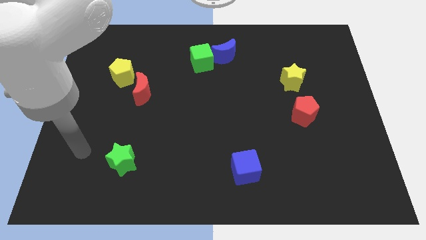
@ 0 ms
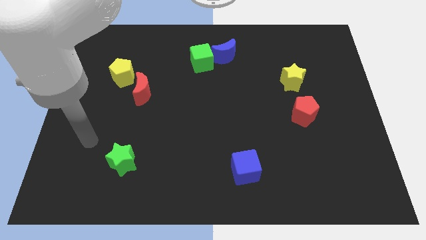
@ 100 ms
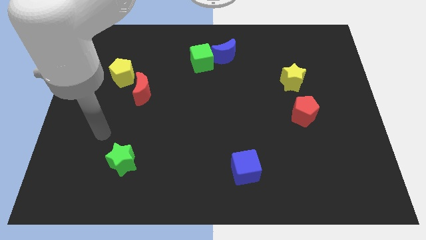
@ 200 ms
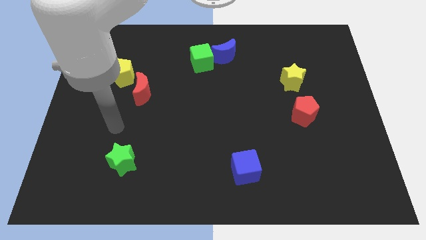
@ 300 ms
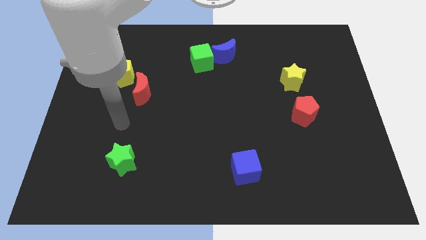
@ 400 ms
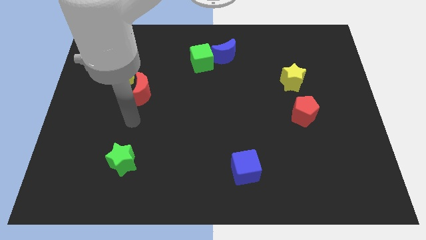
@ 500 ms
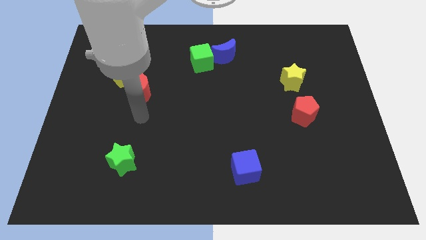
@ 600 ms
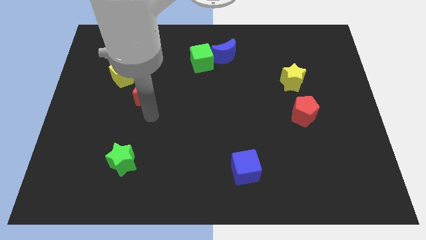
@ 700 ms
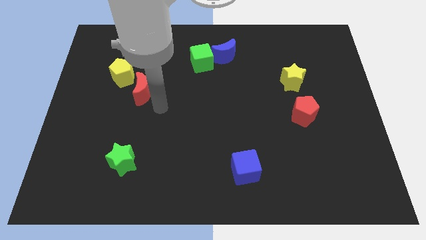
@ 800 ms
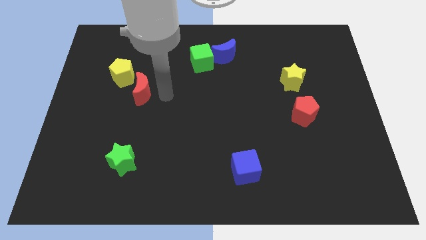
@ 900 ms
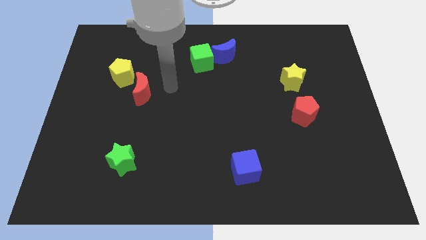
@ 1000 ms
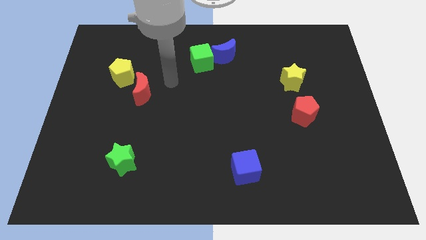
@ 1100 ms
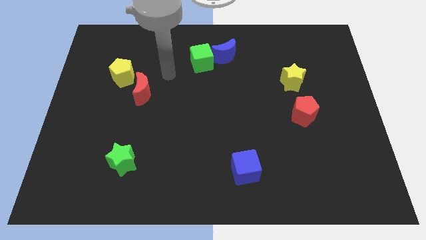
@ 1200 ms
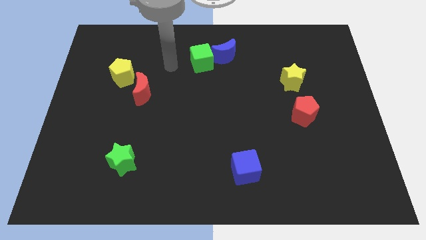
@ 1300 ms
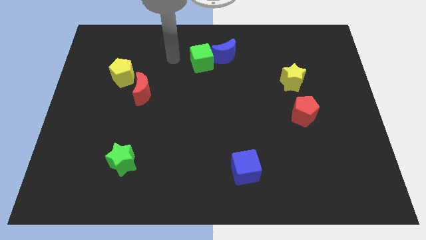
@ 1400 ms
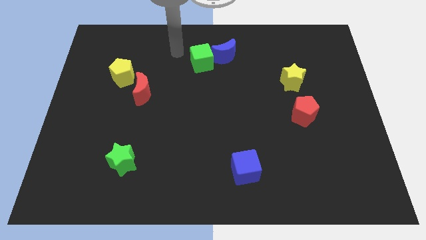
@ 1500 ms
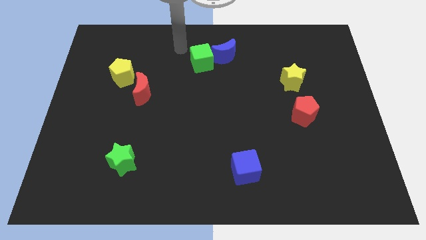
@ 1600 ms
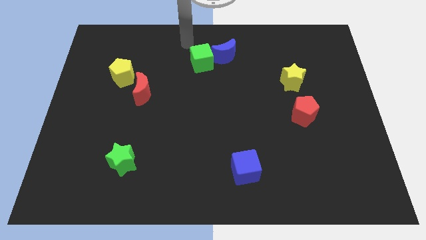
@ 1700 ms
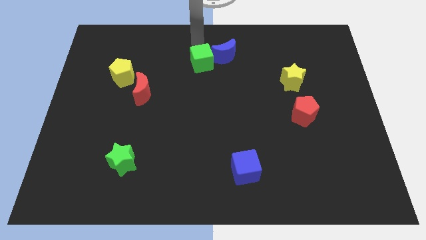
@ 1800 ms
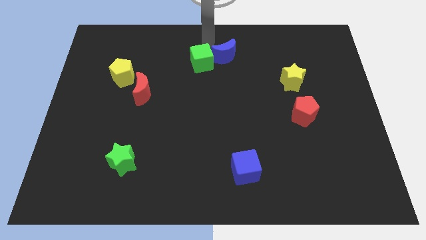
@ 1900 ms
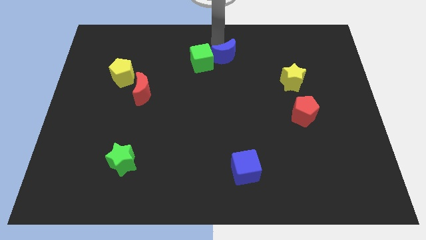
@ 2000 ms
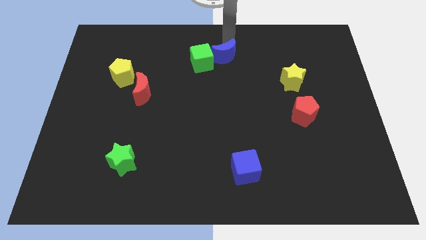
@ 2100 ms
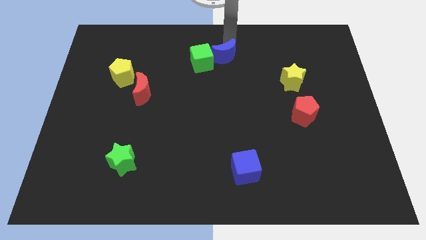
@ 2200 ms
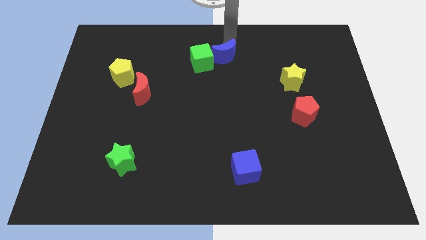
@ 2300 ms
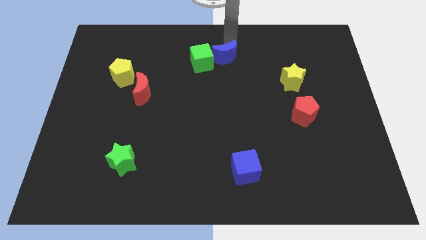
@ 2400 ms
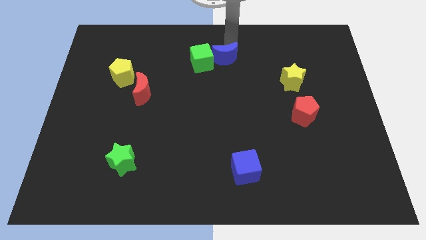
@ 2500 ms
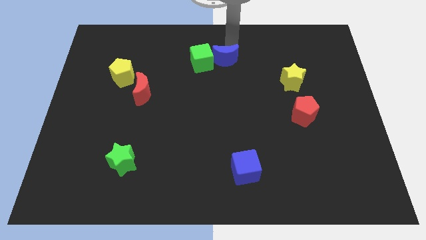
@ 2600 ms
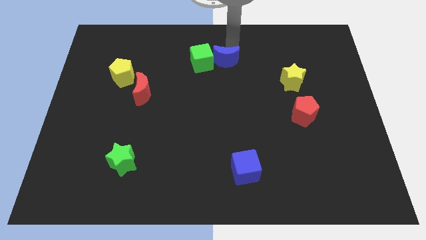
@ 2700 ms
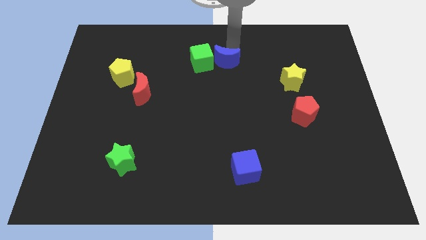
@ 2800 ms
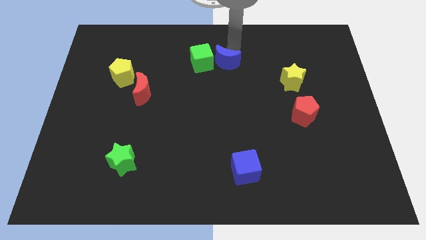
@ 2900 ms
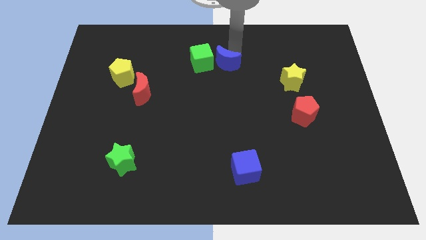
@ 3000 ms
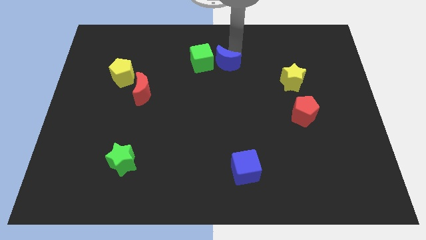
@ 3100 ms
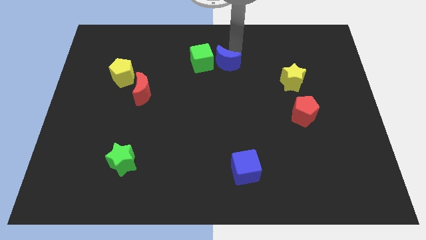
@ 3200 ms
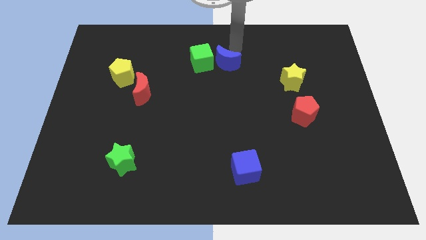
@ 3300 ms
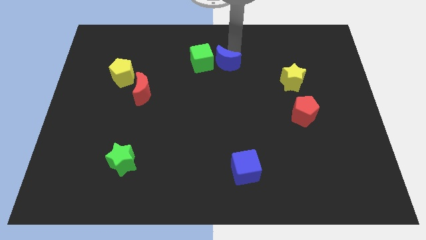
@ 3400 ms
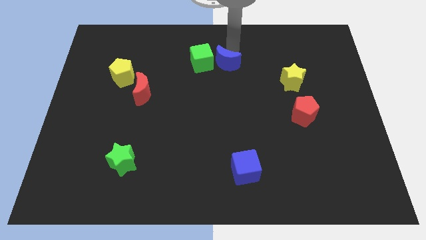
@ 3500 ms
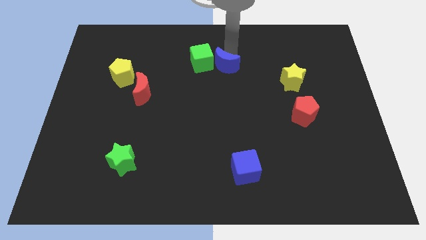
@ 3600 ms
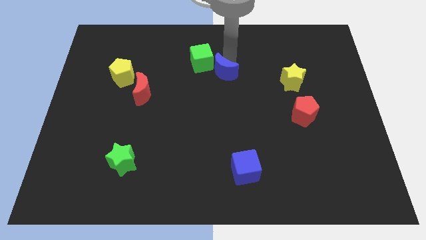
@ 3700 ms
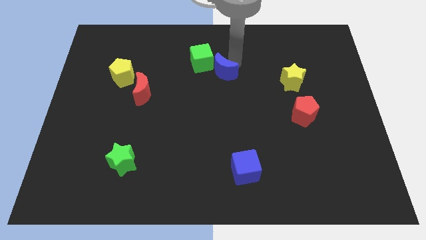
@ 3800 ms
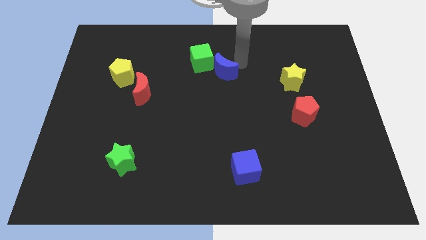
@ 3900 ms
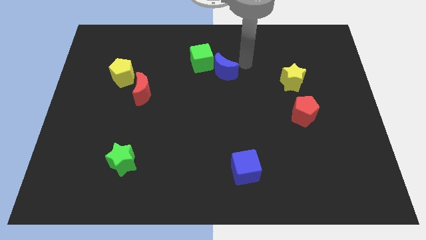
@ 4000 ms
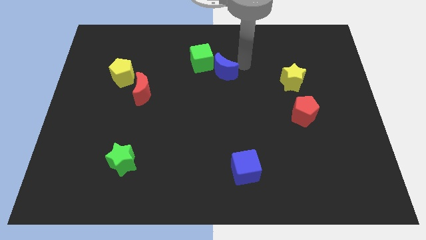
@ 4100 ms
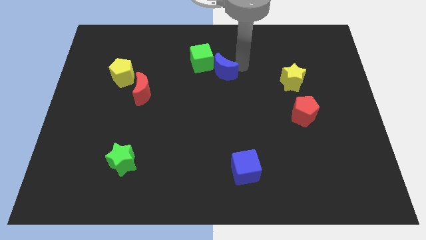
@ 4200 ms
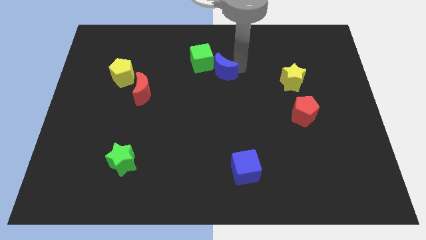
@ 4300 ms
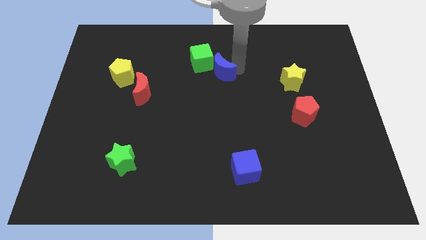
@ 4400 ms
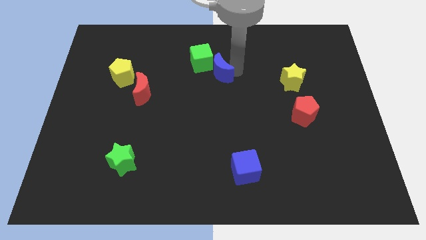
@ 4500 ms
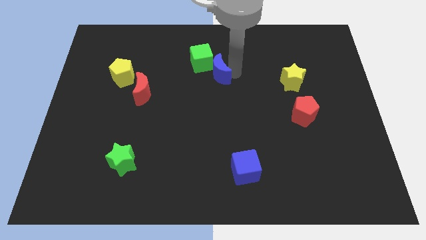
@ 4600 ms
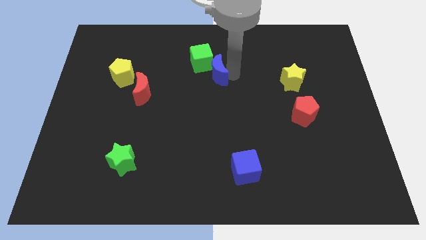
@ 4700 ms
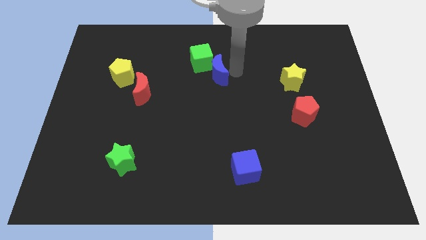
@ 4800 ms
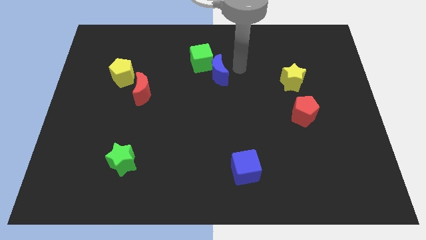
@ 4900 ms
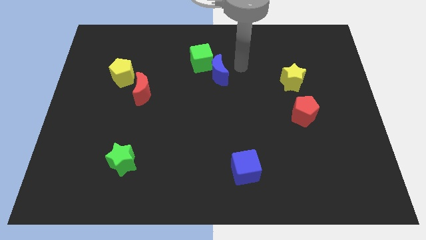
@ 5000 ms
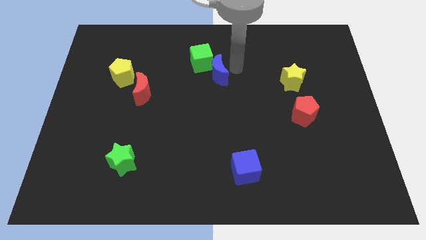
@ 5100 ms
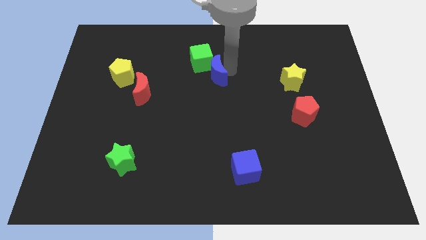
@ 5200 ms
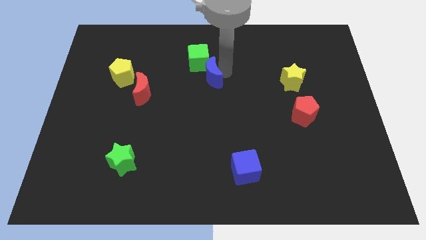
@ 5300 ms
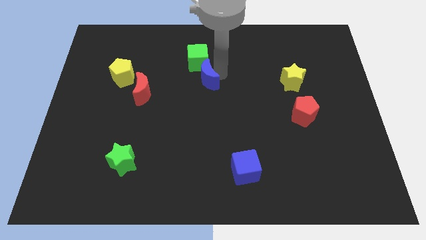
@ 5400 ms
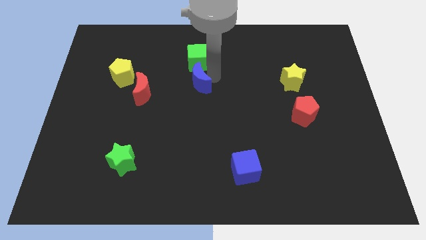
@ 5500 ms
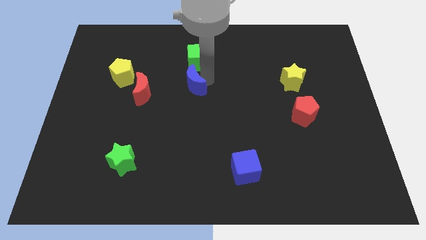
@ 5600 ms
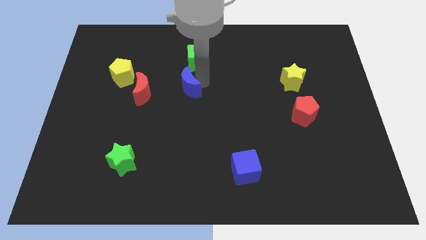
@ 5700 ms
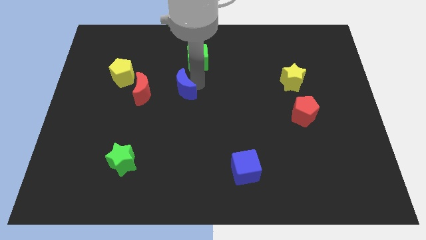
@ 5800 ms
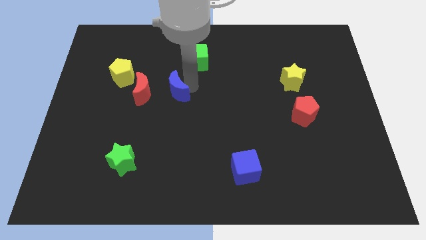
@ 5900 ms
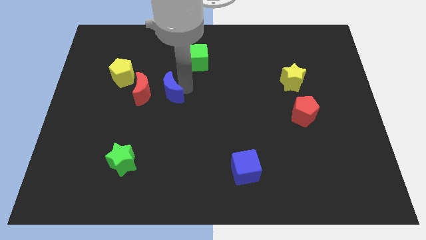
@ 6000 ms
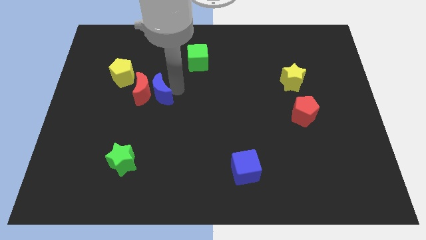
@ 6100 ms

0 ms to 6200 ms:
push the blue moon downwards and then left

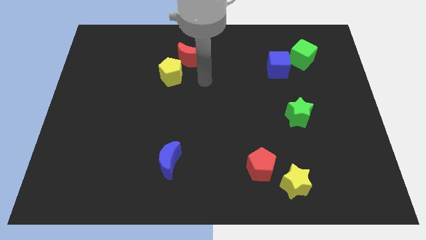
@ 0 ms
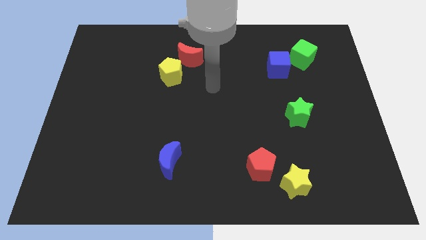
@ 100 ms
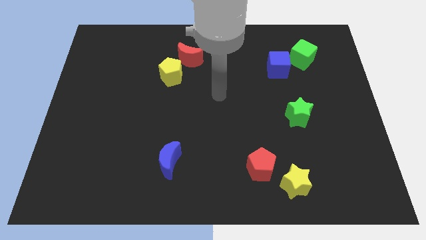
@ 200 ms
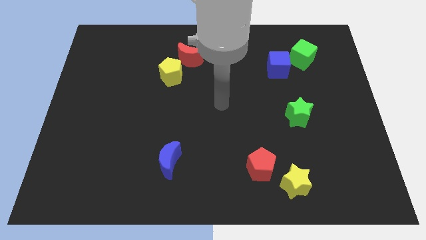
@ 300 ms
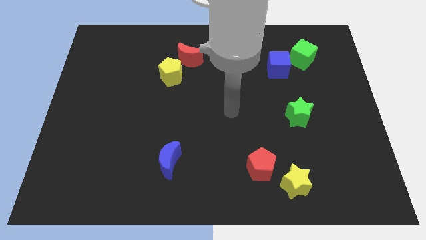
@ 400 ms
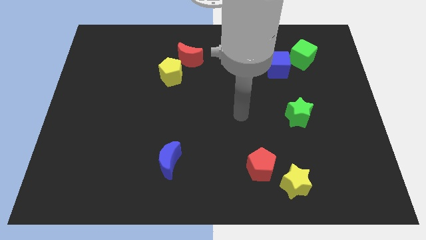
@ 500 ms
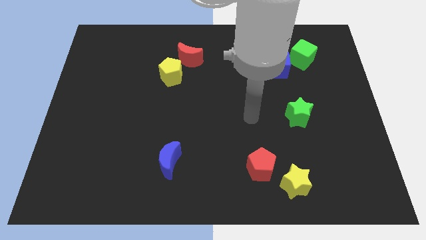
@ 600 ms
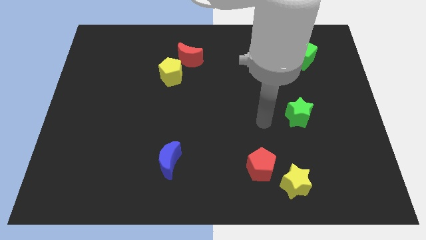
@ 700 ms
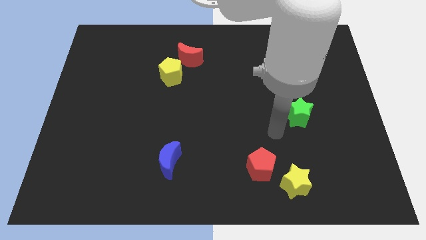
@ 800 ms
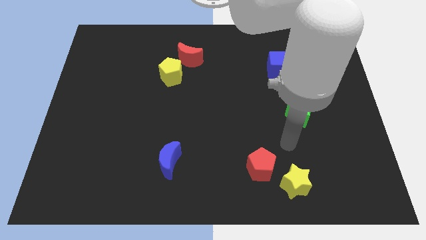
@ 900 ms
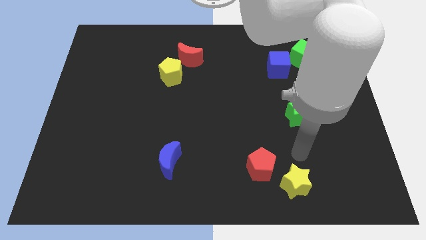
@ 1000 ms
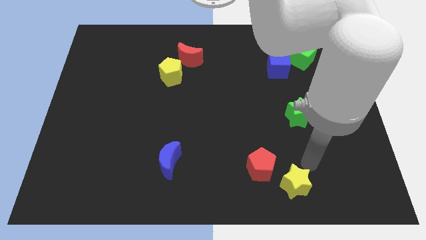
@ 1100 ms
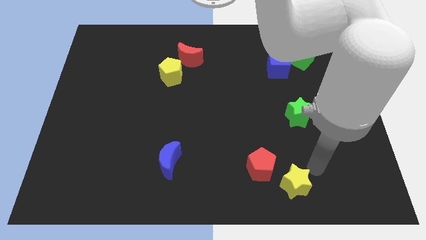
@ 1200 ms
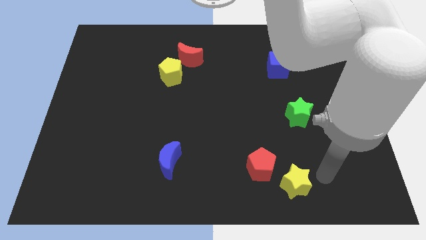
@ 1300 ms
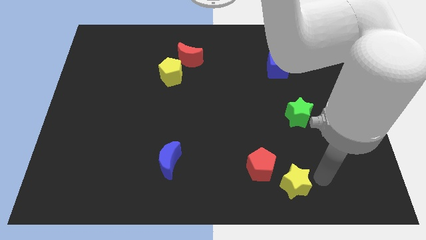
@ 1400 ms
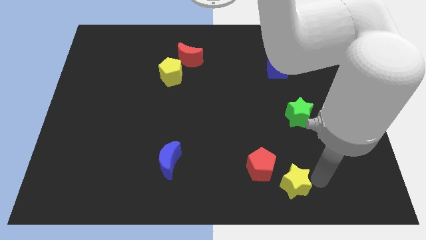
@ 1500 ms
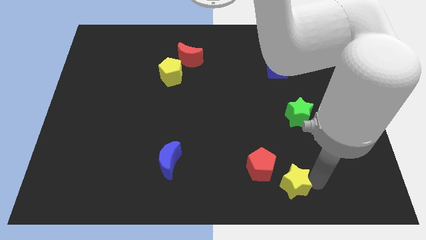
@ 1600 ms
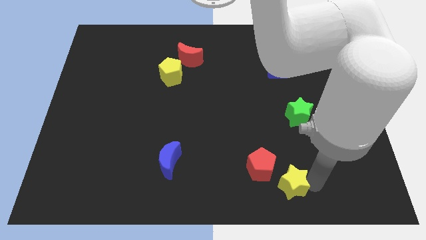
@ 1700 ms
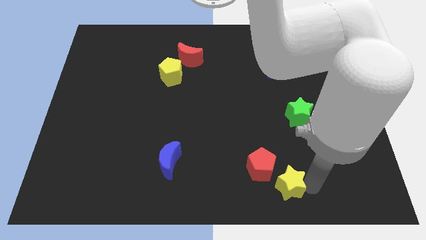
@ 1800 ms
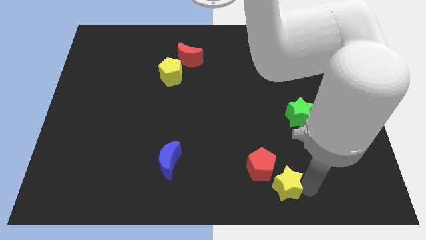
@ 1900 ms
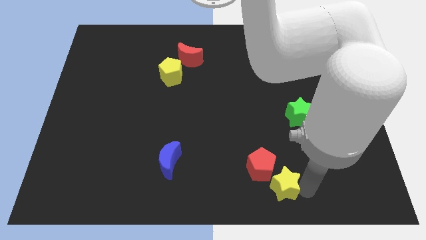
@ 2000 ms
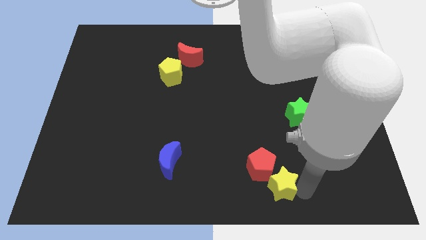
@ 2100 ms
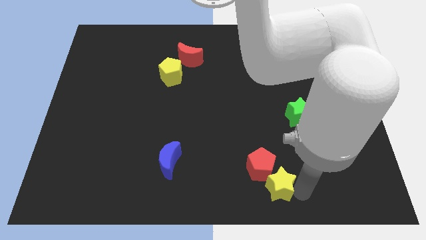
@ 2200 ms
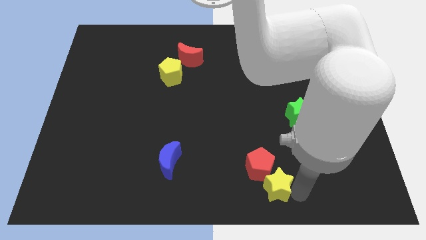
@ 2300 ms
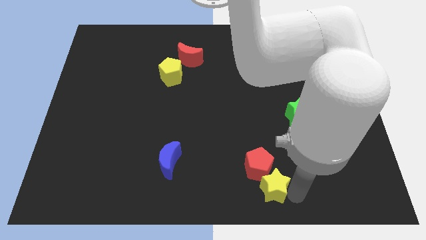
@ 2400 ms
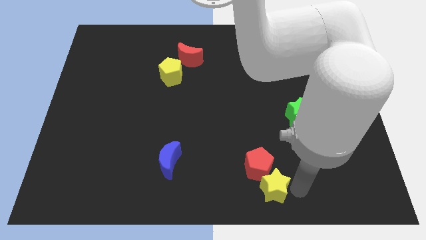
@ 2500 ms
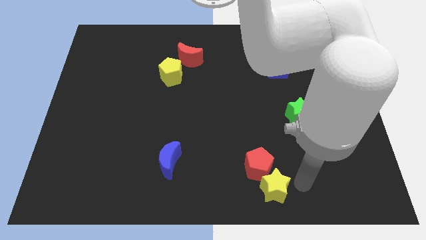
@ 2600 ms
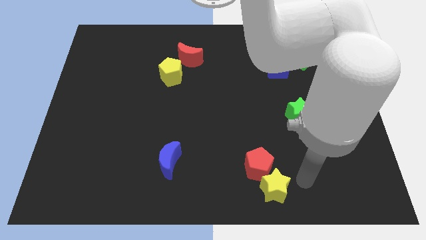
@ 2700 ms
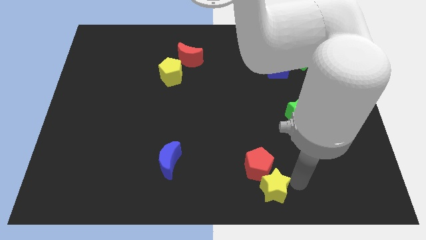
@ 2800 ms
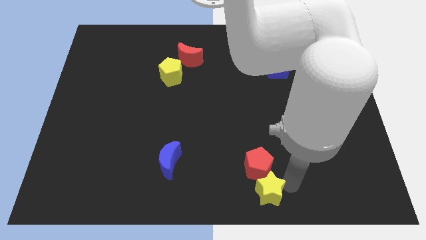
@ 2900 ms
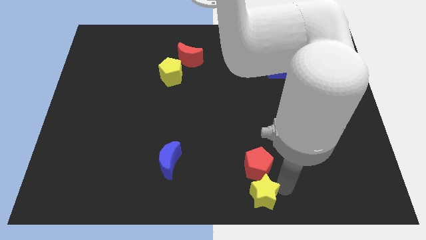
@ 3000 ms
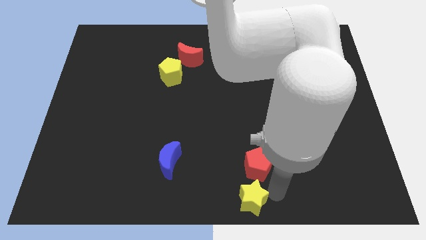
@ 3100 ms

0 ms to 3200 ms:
slightly move the yellow star to the left
